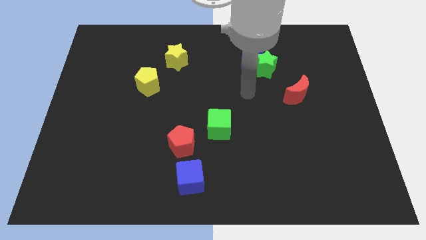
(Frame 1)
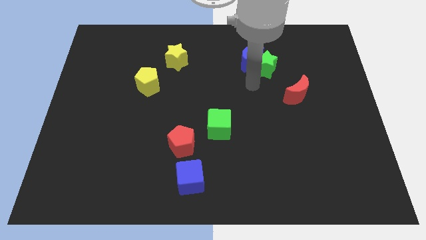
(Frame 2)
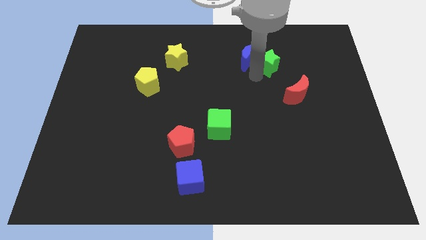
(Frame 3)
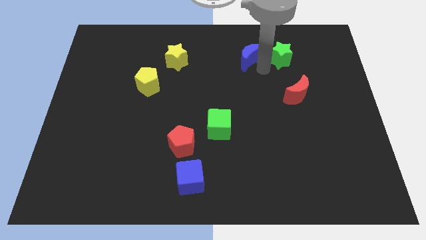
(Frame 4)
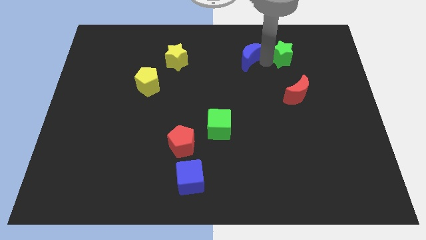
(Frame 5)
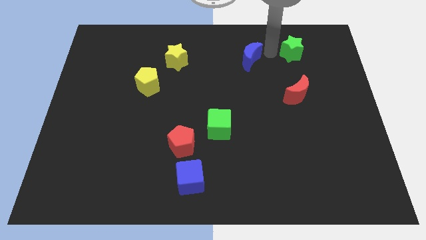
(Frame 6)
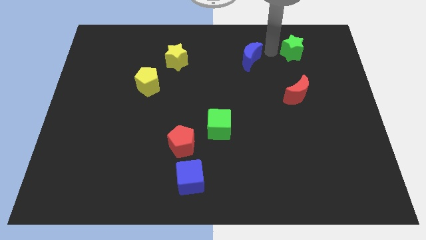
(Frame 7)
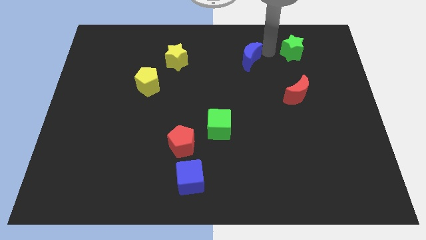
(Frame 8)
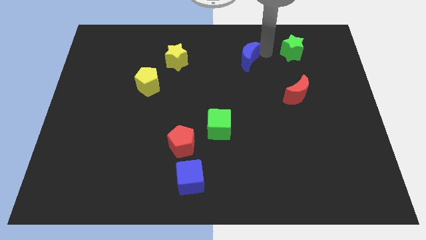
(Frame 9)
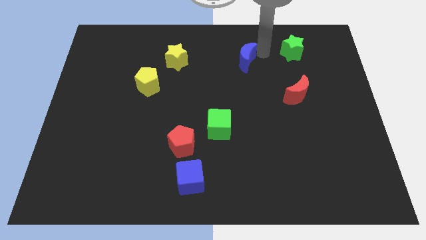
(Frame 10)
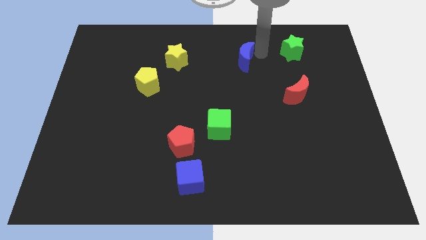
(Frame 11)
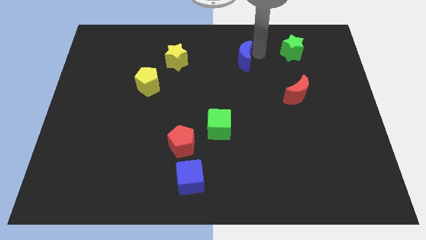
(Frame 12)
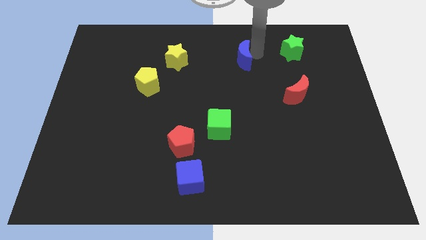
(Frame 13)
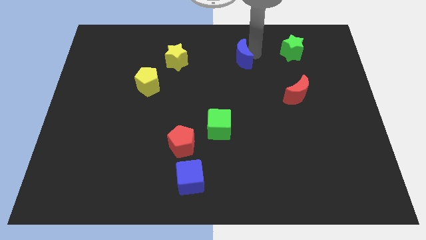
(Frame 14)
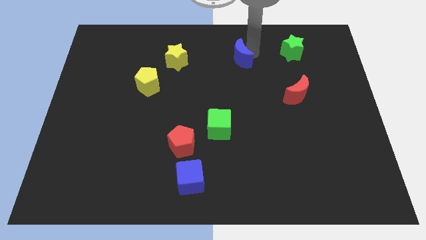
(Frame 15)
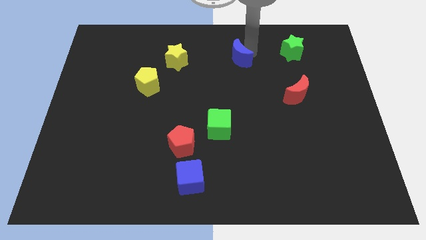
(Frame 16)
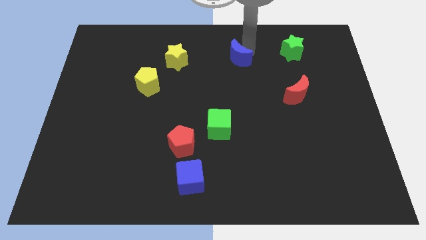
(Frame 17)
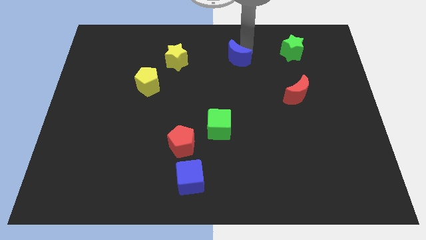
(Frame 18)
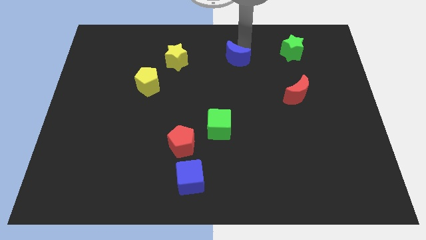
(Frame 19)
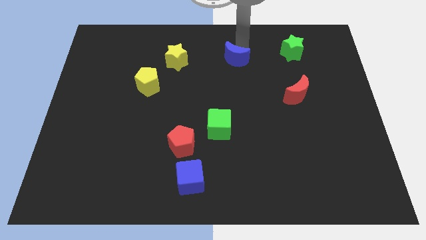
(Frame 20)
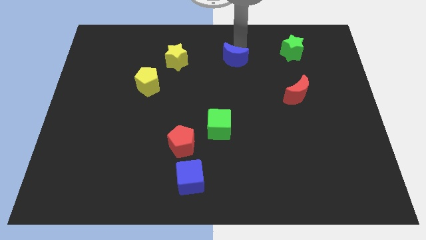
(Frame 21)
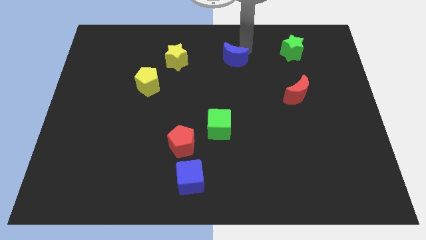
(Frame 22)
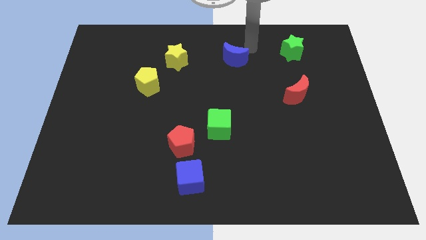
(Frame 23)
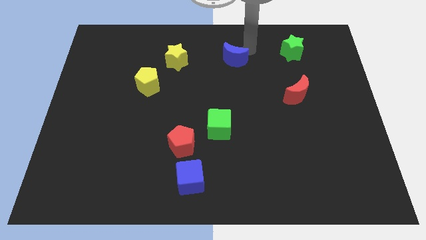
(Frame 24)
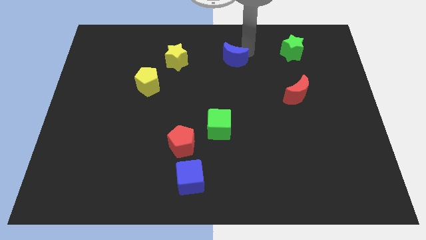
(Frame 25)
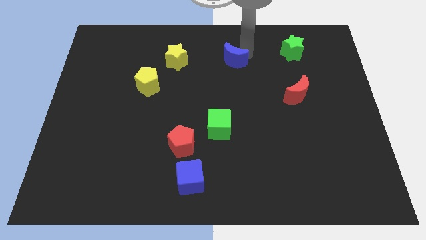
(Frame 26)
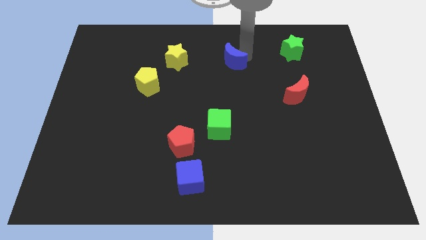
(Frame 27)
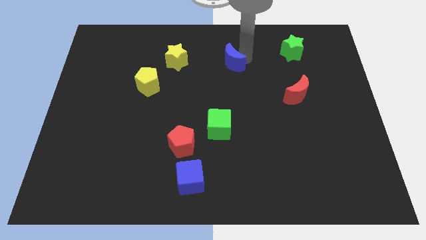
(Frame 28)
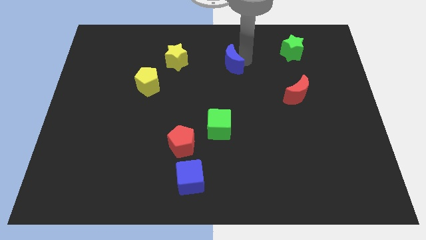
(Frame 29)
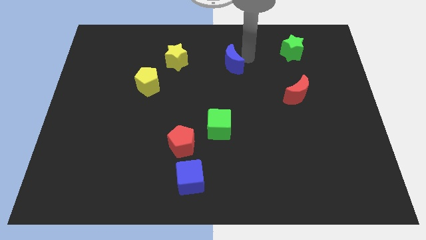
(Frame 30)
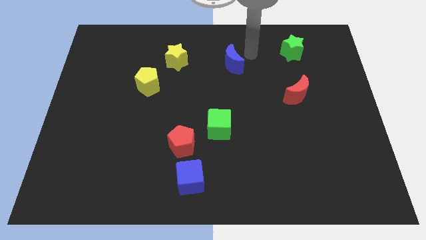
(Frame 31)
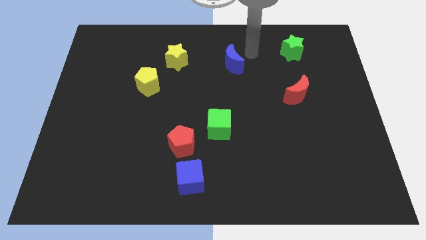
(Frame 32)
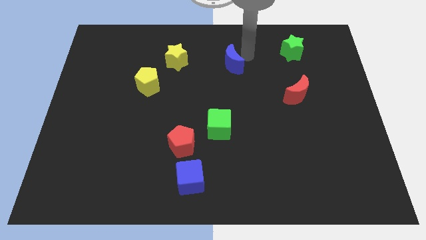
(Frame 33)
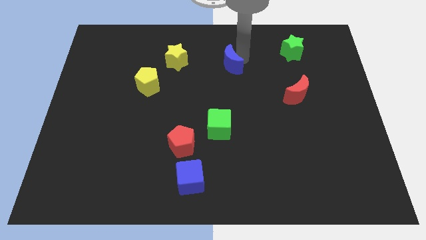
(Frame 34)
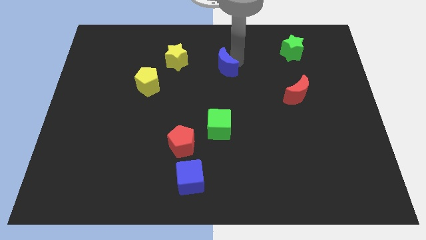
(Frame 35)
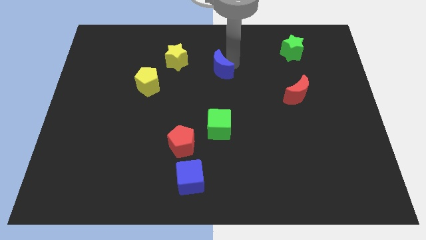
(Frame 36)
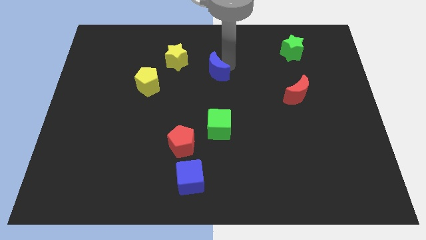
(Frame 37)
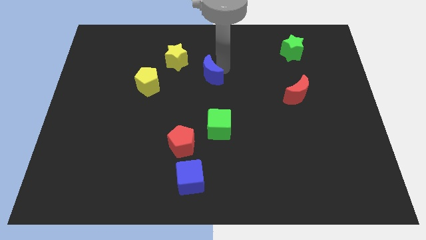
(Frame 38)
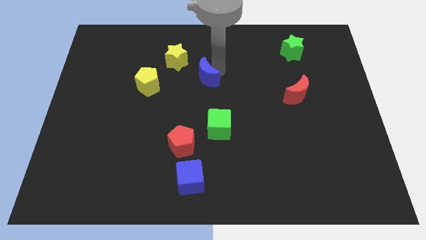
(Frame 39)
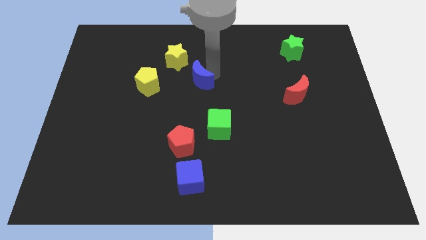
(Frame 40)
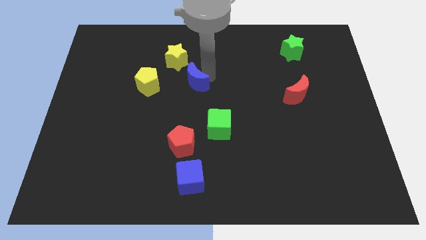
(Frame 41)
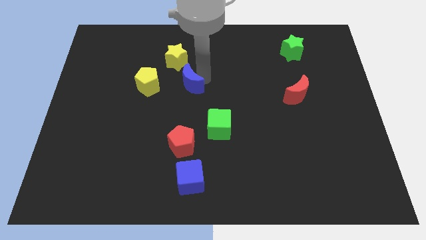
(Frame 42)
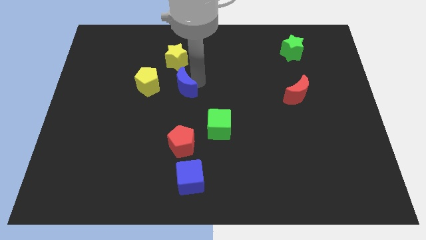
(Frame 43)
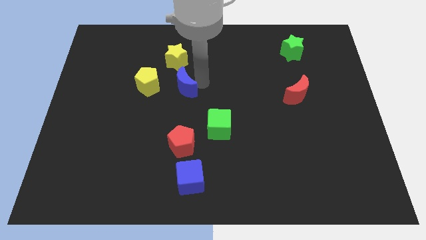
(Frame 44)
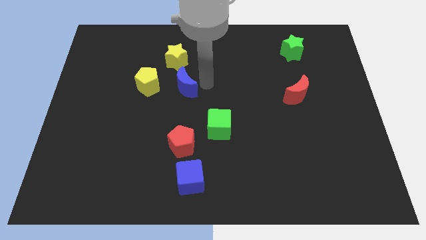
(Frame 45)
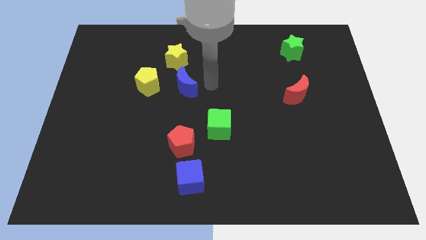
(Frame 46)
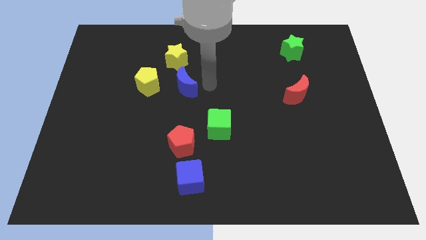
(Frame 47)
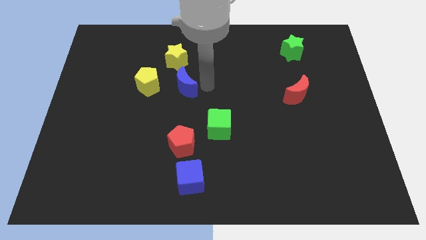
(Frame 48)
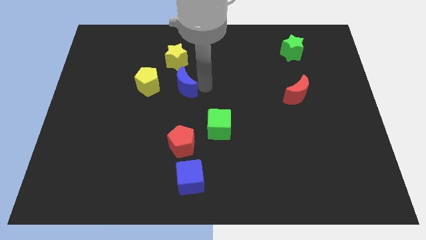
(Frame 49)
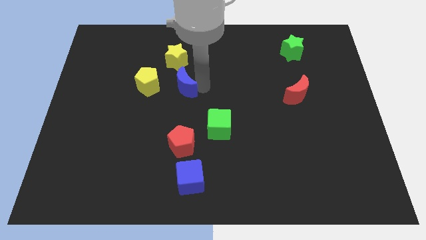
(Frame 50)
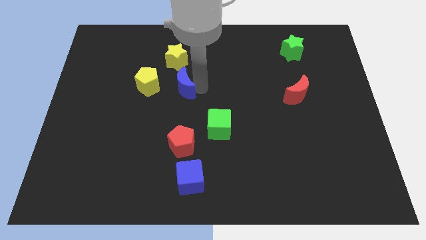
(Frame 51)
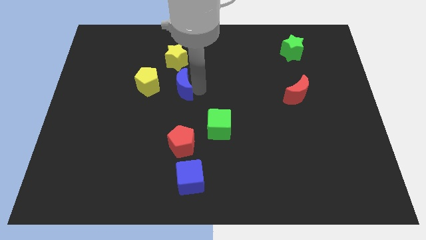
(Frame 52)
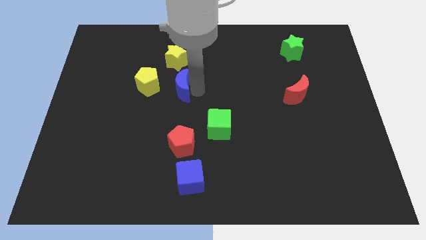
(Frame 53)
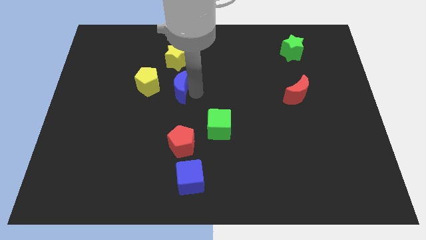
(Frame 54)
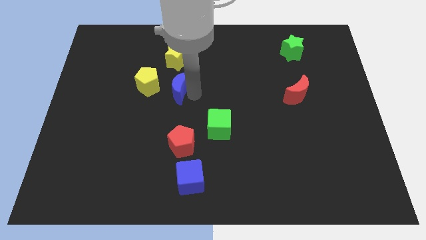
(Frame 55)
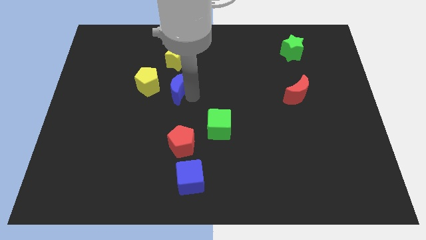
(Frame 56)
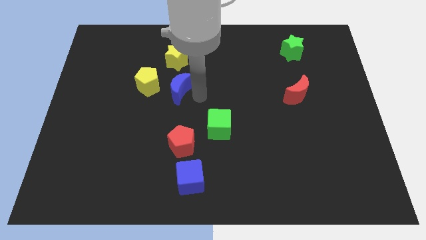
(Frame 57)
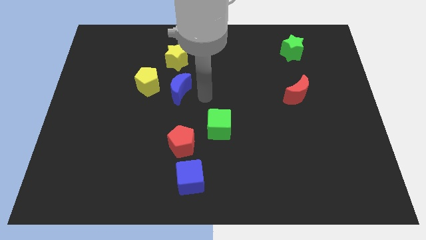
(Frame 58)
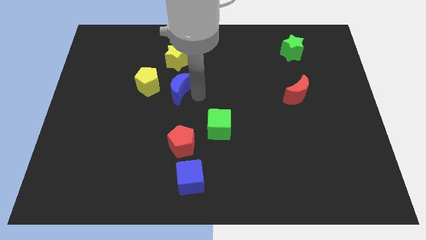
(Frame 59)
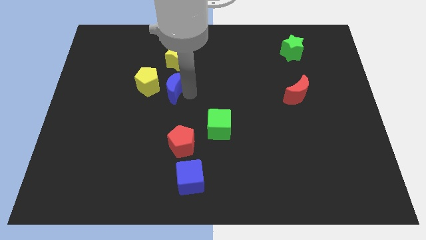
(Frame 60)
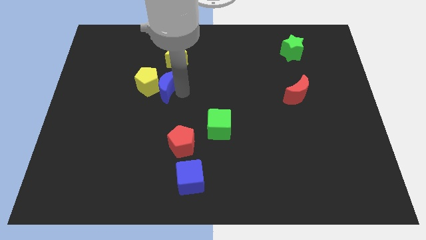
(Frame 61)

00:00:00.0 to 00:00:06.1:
push the blue moon close to the yellow pentagon

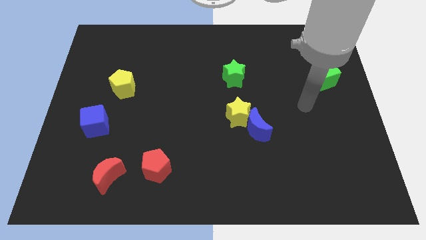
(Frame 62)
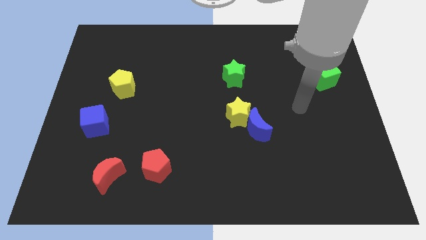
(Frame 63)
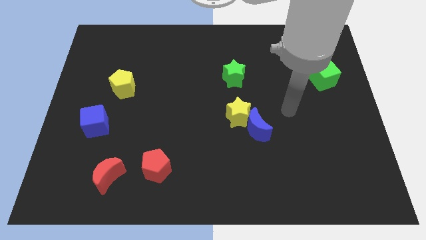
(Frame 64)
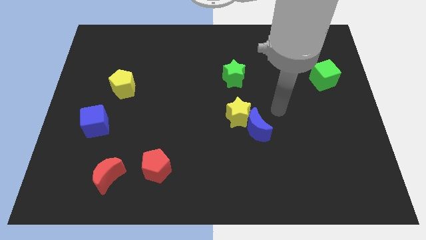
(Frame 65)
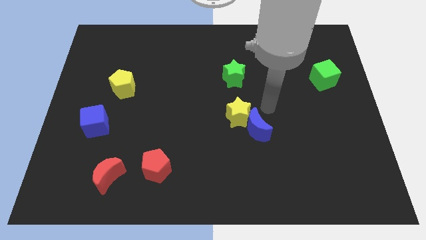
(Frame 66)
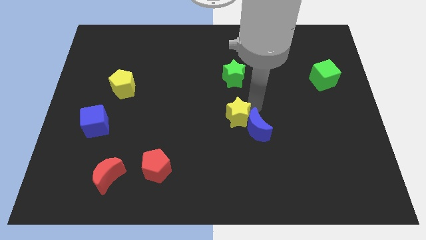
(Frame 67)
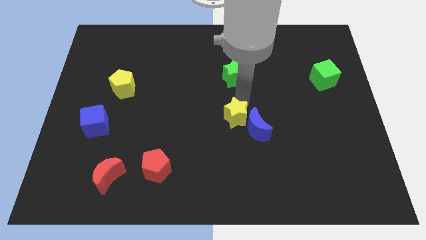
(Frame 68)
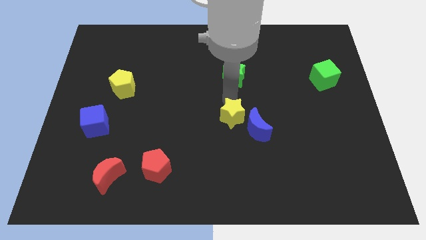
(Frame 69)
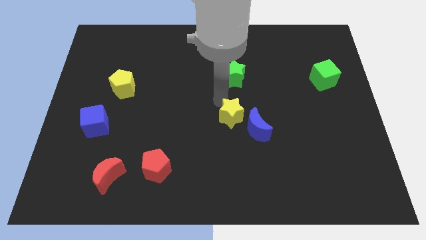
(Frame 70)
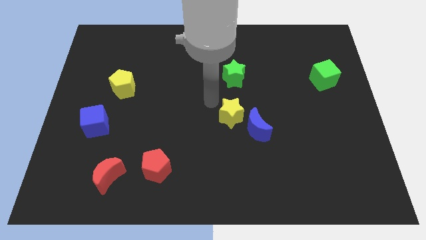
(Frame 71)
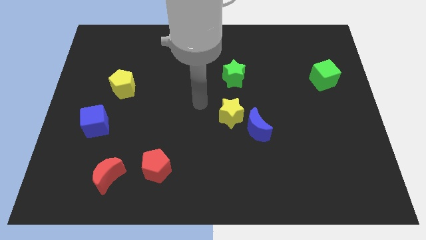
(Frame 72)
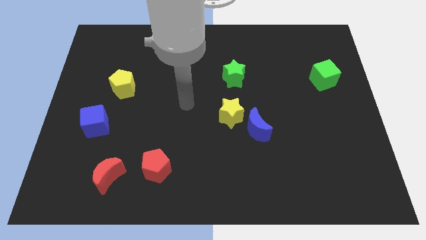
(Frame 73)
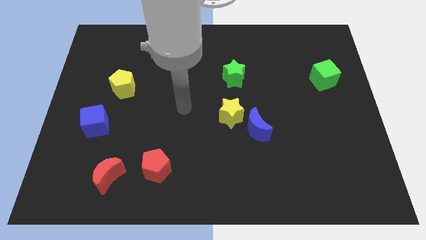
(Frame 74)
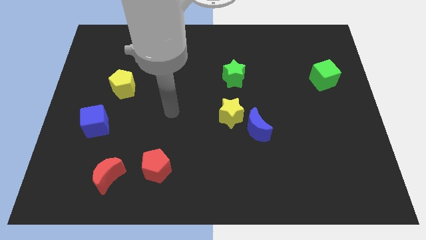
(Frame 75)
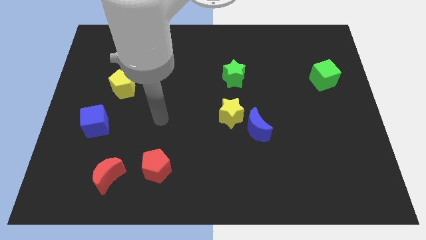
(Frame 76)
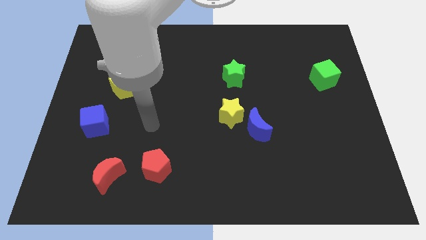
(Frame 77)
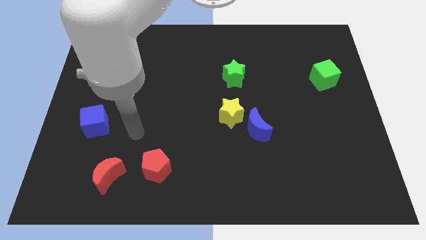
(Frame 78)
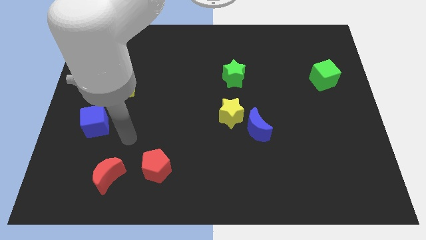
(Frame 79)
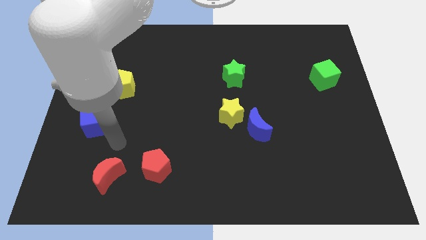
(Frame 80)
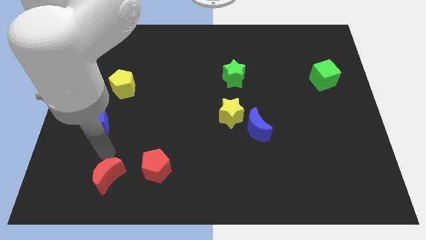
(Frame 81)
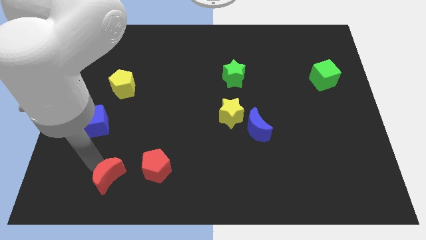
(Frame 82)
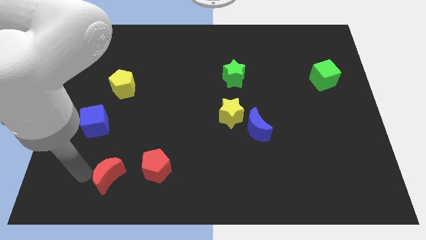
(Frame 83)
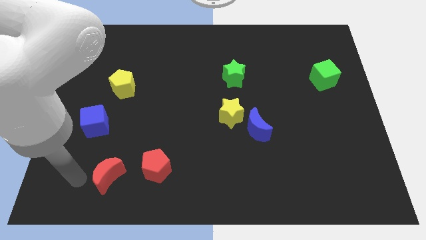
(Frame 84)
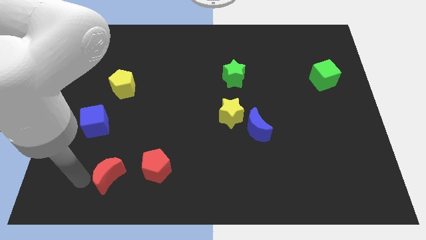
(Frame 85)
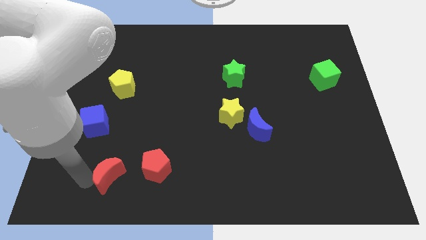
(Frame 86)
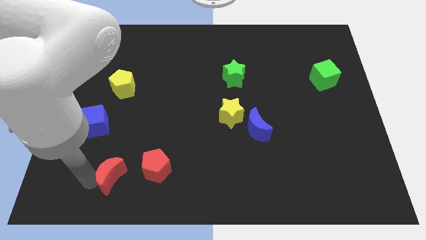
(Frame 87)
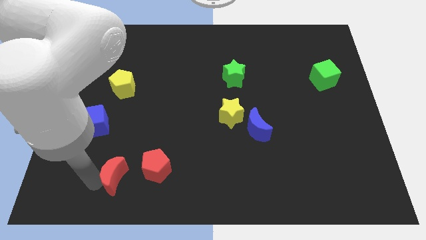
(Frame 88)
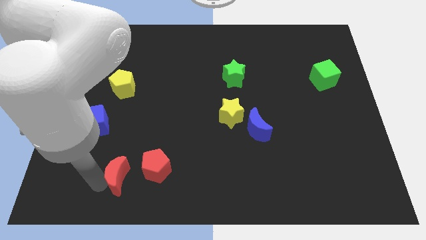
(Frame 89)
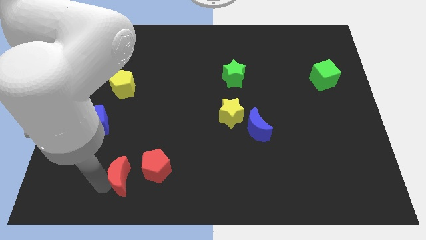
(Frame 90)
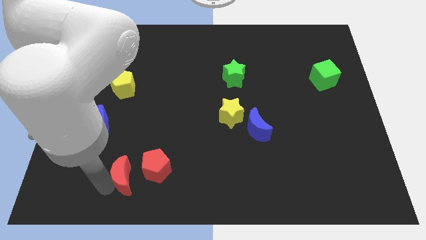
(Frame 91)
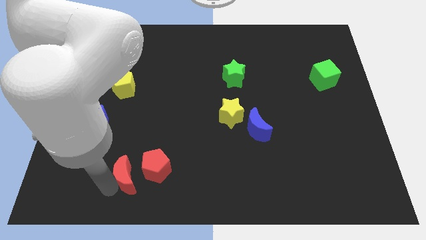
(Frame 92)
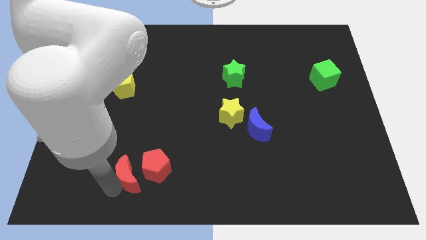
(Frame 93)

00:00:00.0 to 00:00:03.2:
move the red moon next to the red pentagon
